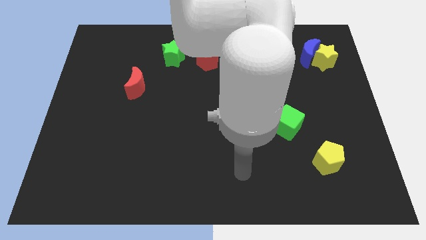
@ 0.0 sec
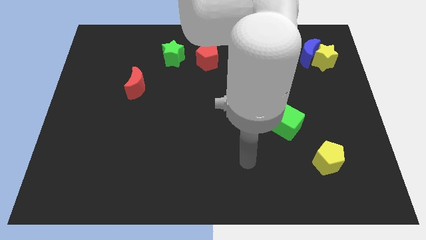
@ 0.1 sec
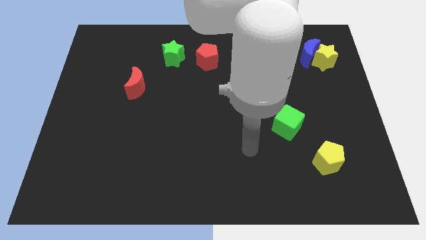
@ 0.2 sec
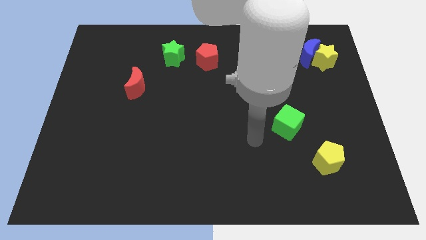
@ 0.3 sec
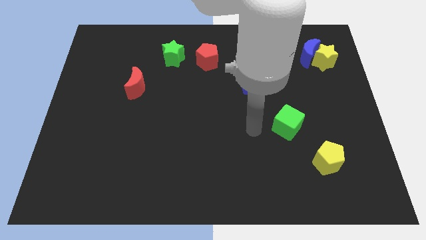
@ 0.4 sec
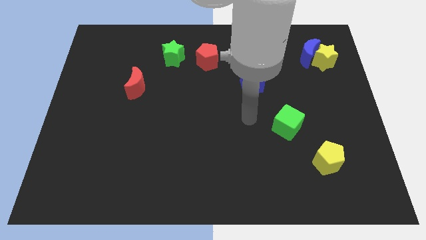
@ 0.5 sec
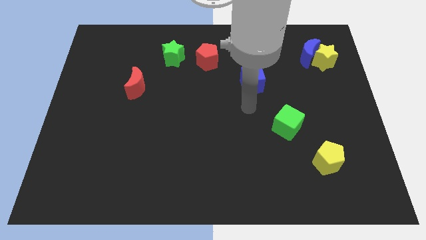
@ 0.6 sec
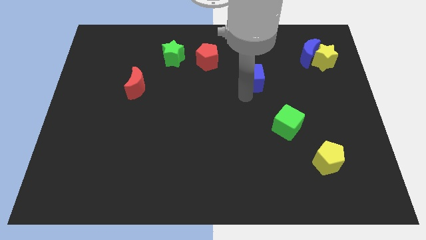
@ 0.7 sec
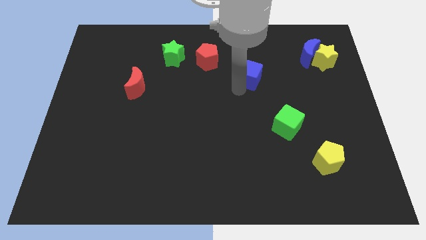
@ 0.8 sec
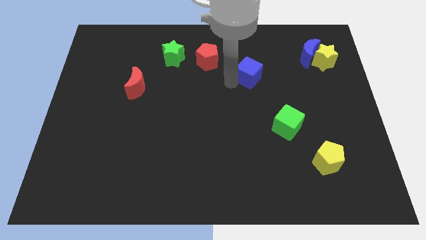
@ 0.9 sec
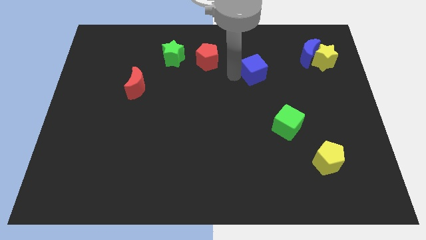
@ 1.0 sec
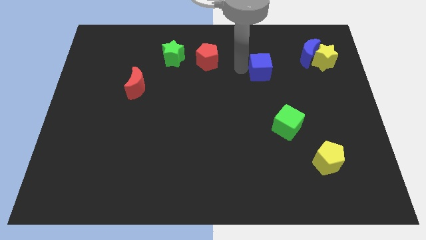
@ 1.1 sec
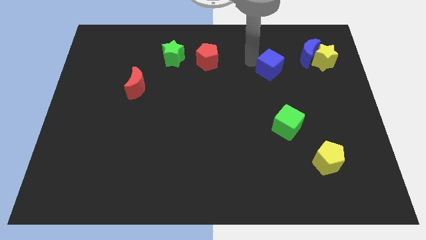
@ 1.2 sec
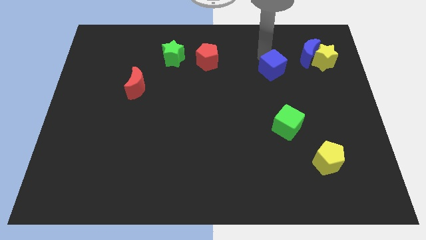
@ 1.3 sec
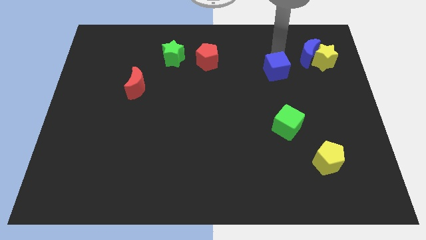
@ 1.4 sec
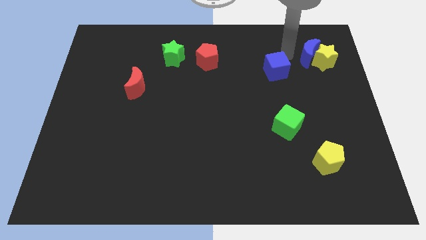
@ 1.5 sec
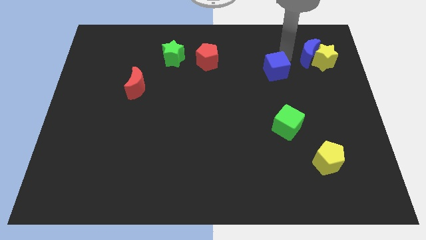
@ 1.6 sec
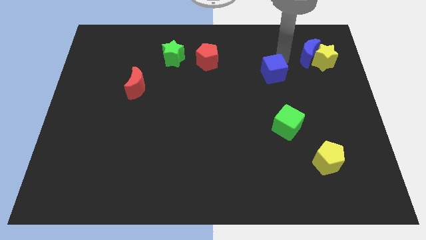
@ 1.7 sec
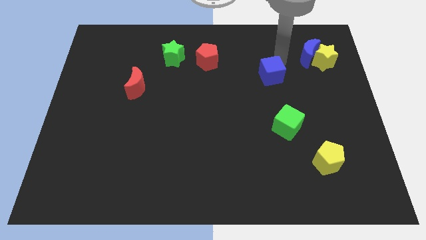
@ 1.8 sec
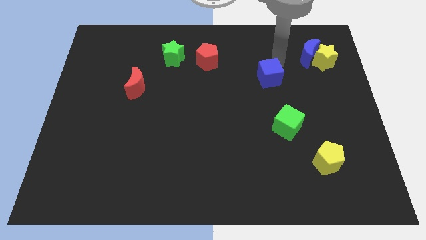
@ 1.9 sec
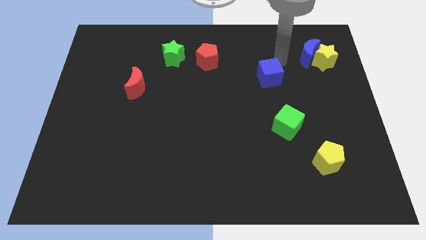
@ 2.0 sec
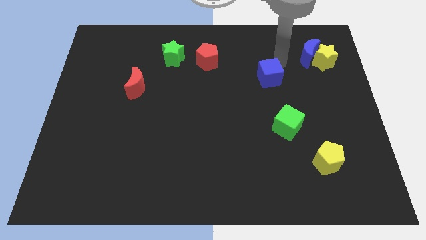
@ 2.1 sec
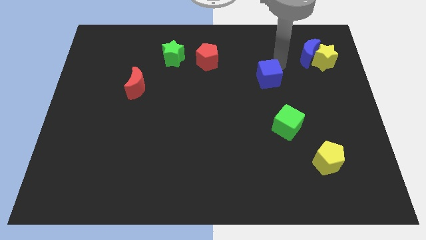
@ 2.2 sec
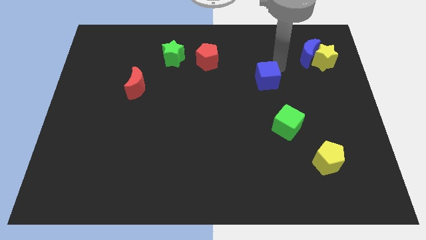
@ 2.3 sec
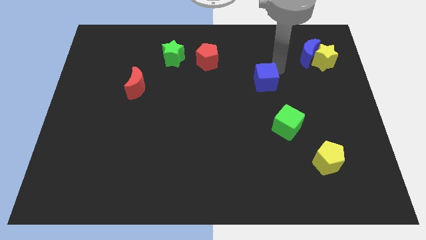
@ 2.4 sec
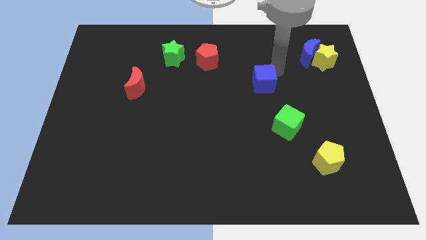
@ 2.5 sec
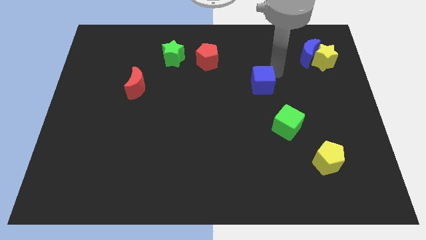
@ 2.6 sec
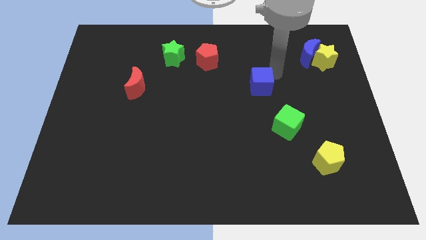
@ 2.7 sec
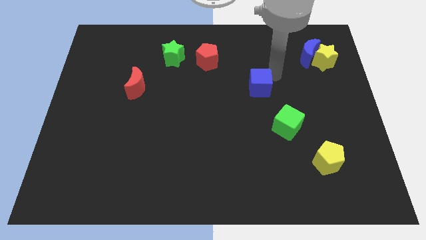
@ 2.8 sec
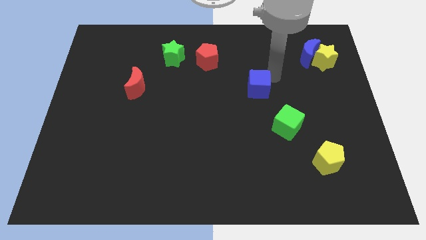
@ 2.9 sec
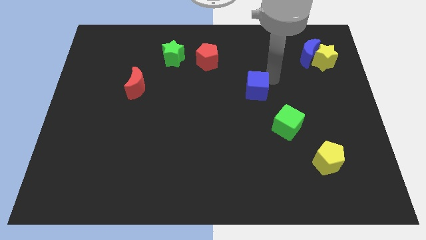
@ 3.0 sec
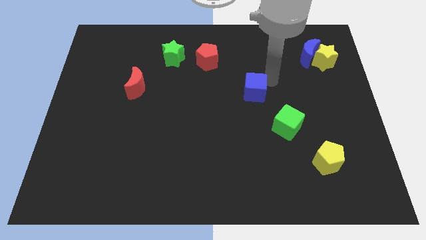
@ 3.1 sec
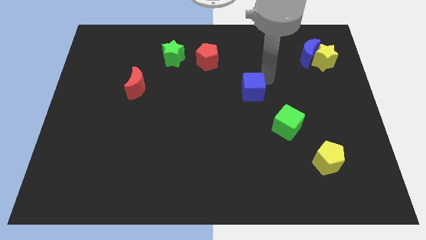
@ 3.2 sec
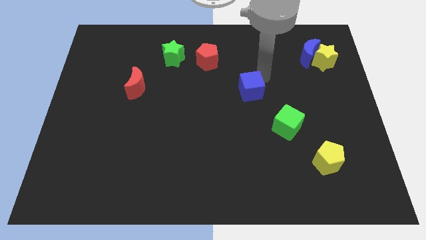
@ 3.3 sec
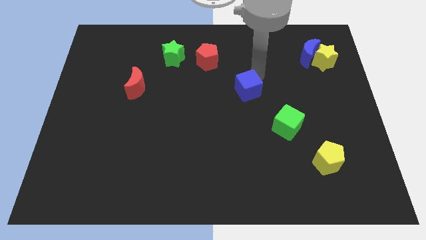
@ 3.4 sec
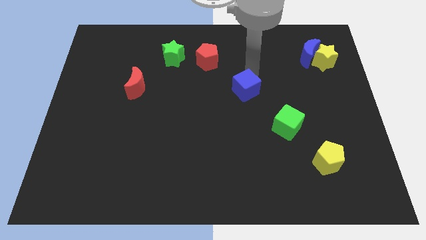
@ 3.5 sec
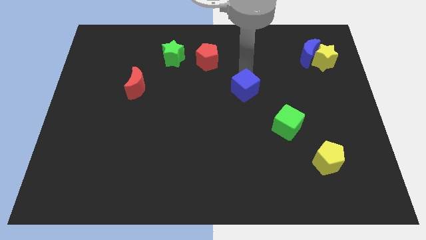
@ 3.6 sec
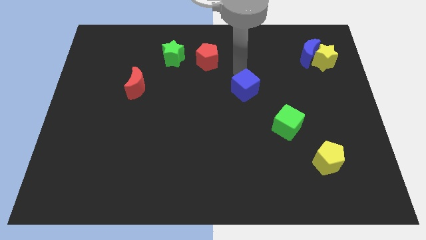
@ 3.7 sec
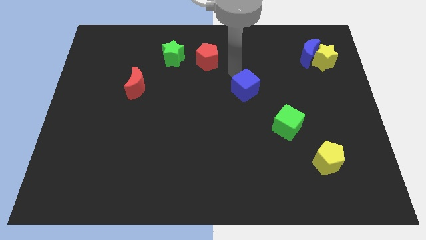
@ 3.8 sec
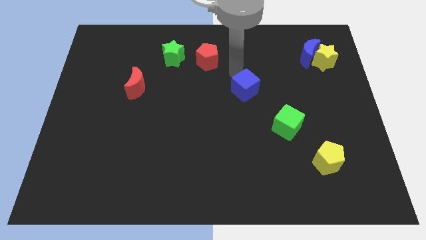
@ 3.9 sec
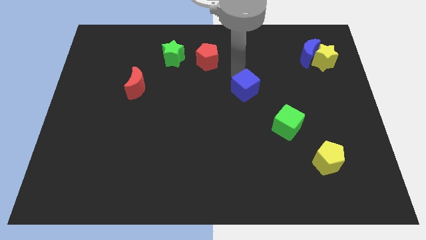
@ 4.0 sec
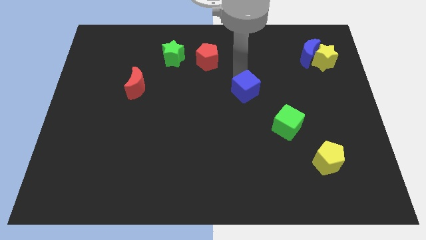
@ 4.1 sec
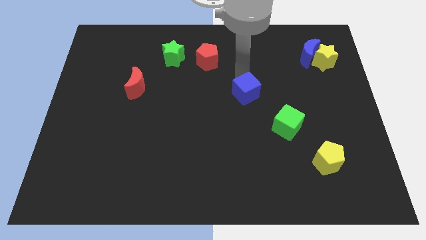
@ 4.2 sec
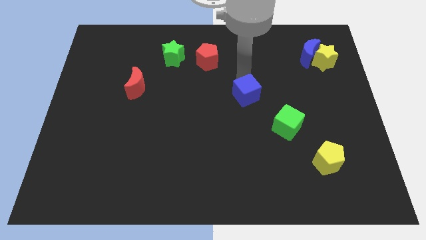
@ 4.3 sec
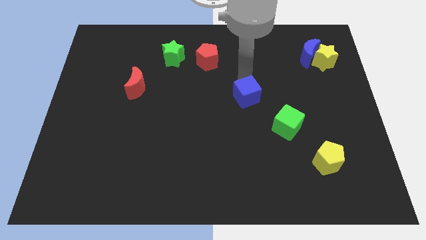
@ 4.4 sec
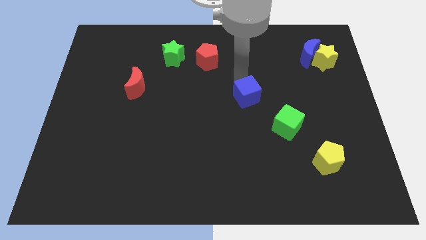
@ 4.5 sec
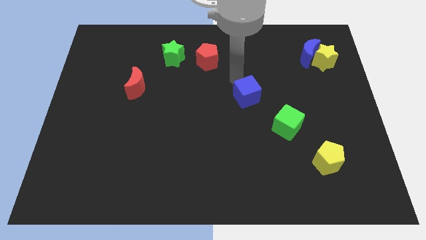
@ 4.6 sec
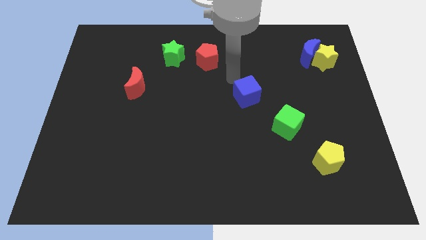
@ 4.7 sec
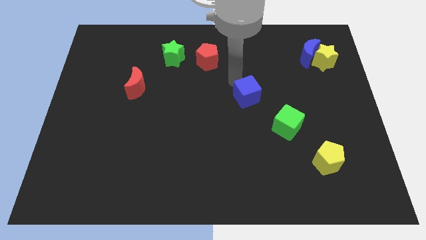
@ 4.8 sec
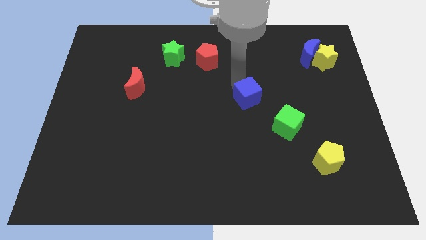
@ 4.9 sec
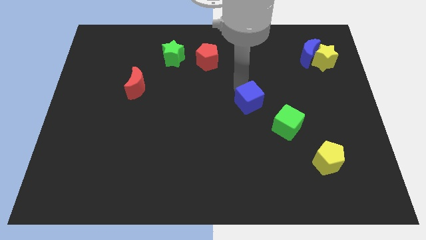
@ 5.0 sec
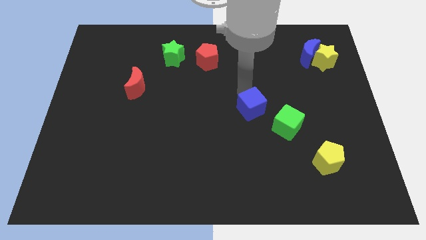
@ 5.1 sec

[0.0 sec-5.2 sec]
slide the blue cube downwards a bit

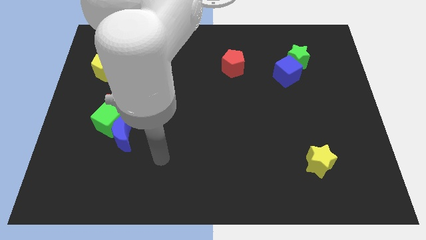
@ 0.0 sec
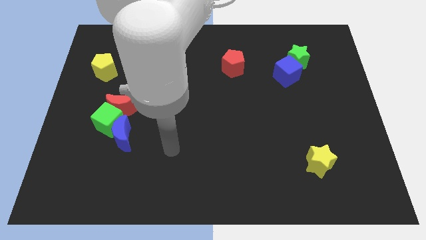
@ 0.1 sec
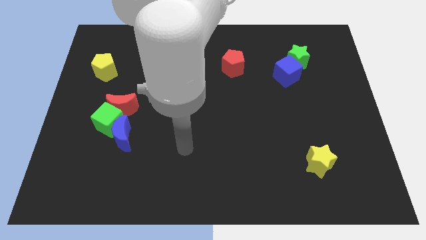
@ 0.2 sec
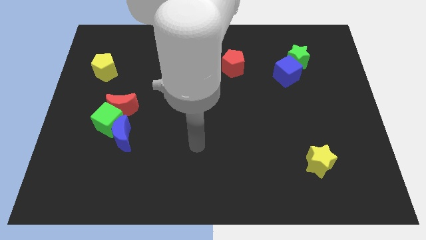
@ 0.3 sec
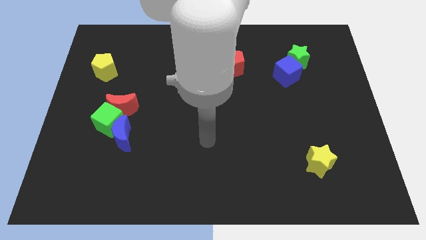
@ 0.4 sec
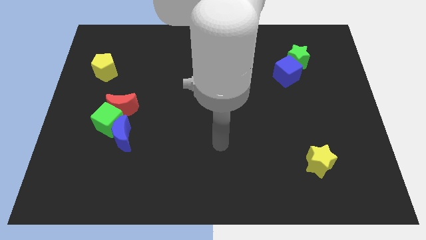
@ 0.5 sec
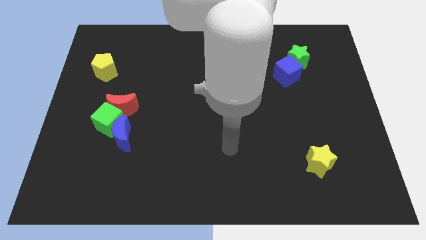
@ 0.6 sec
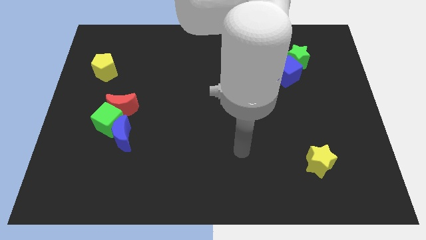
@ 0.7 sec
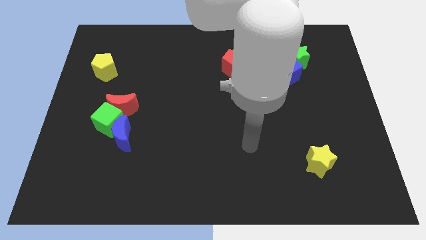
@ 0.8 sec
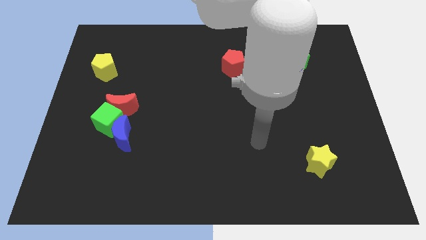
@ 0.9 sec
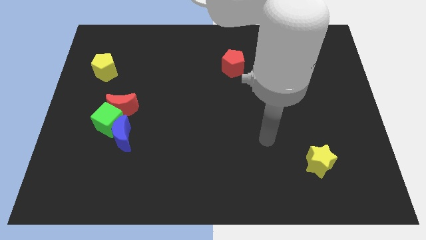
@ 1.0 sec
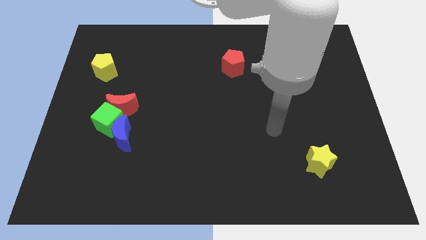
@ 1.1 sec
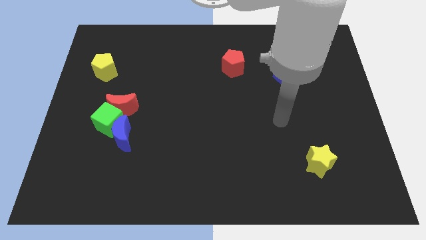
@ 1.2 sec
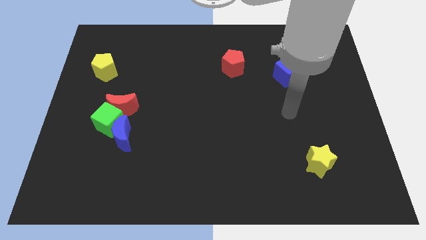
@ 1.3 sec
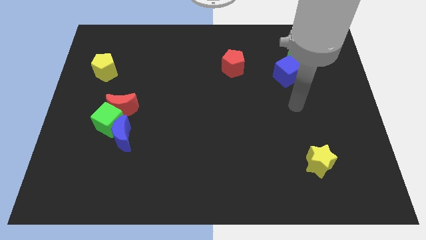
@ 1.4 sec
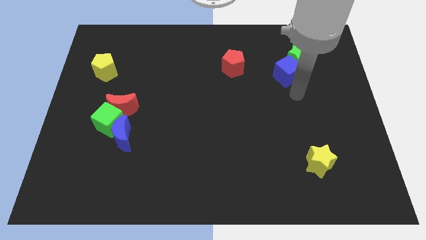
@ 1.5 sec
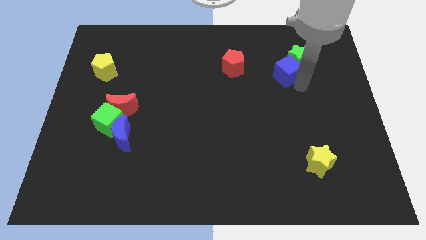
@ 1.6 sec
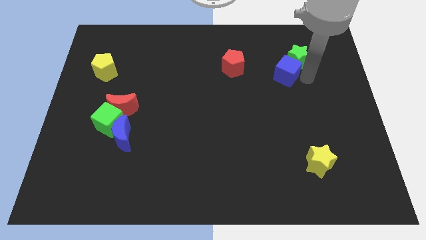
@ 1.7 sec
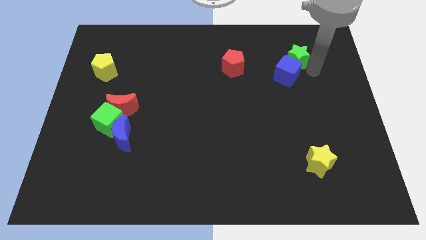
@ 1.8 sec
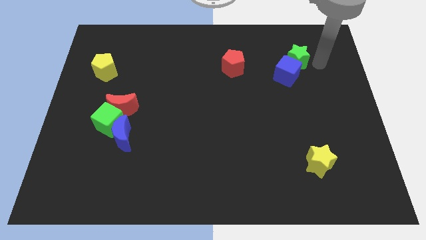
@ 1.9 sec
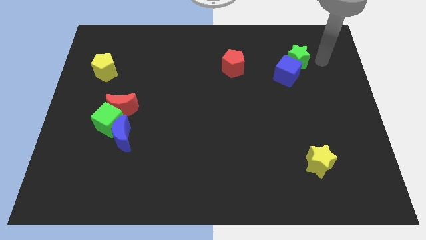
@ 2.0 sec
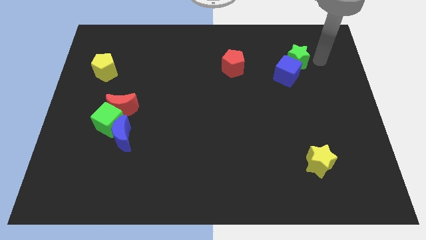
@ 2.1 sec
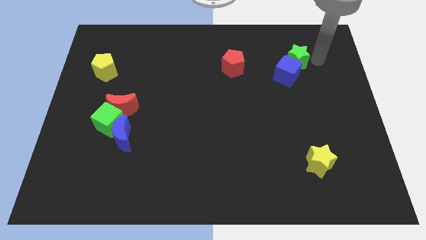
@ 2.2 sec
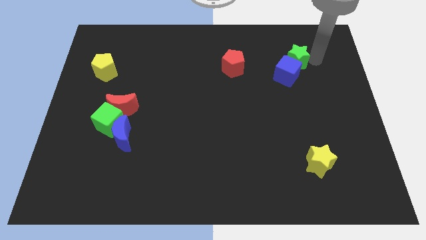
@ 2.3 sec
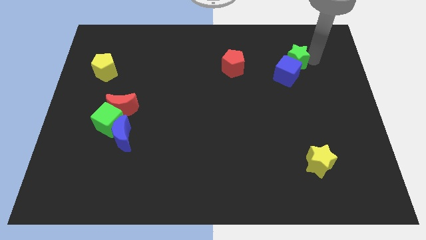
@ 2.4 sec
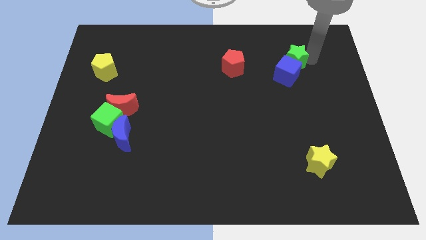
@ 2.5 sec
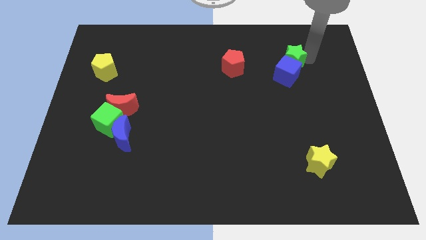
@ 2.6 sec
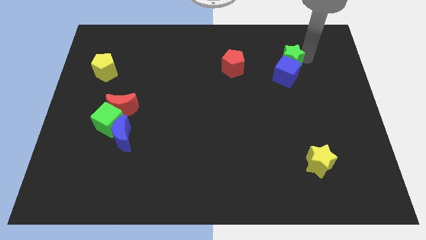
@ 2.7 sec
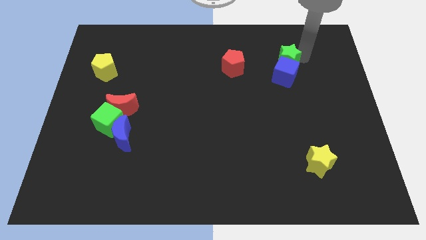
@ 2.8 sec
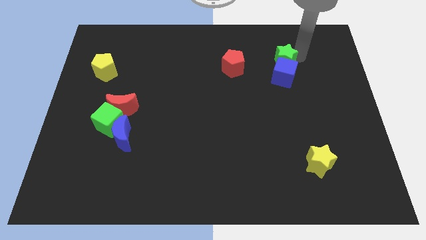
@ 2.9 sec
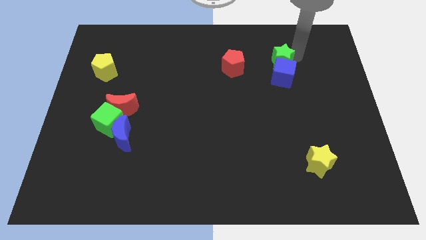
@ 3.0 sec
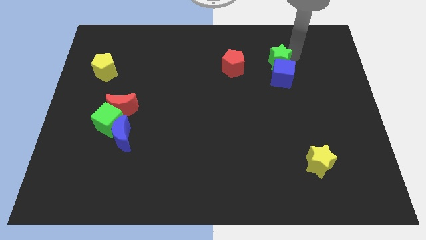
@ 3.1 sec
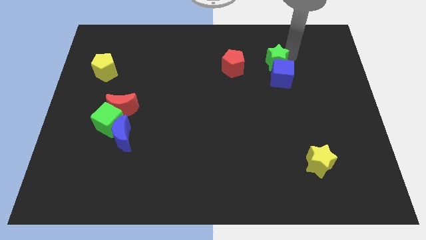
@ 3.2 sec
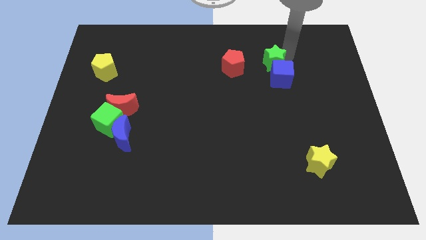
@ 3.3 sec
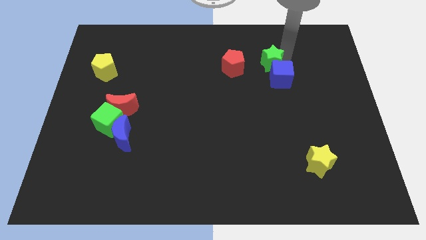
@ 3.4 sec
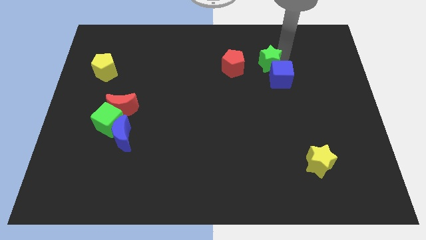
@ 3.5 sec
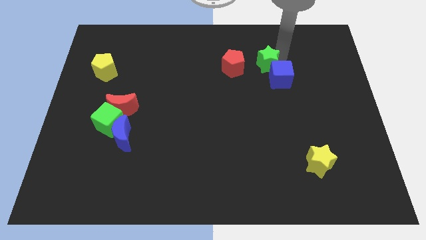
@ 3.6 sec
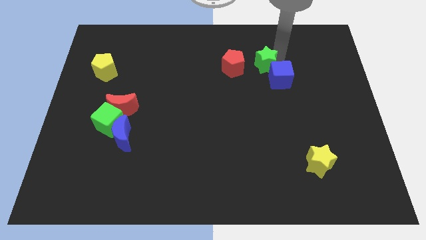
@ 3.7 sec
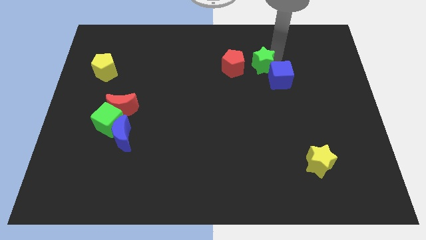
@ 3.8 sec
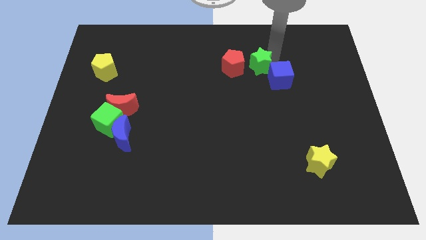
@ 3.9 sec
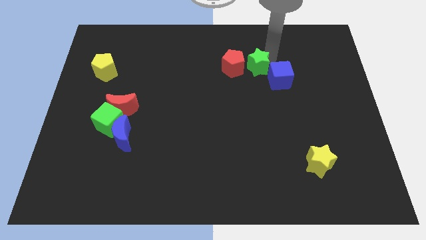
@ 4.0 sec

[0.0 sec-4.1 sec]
move the green star downwards and left a bit
